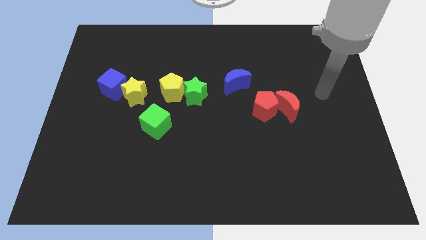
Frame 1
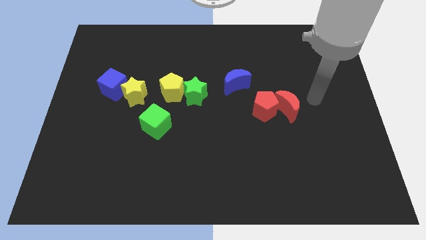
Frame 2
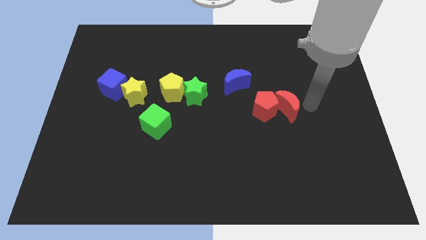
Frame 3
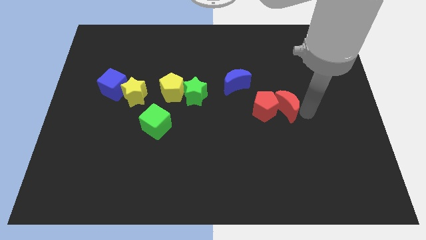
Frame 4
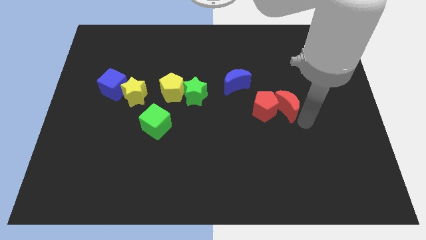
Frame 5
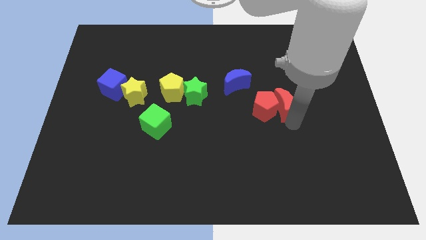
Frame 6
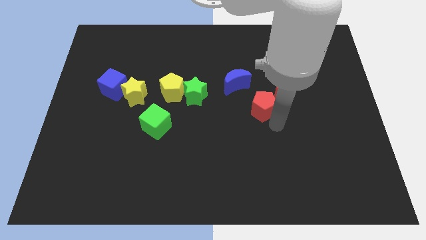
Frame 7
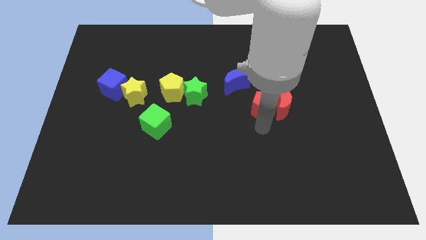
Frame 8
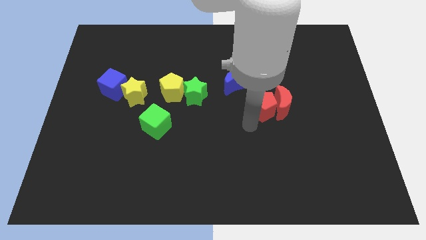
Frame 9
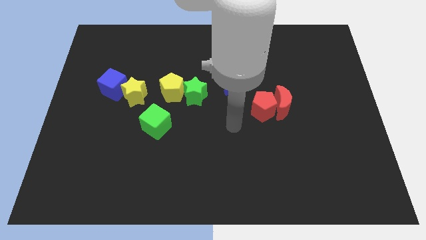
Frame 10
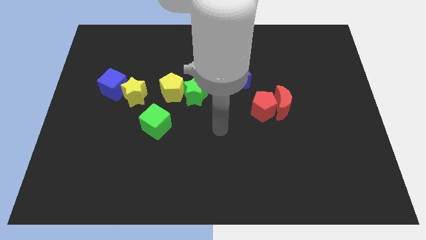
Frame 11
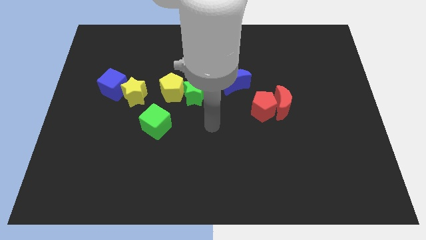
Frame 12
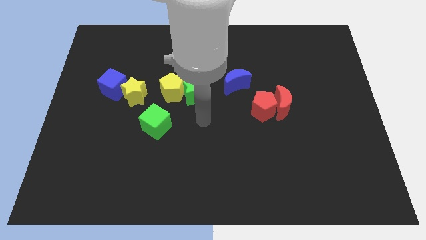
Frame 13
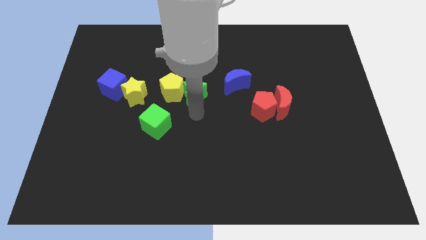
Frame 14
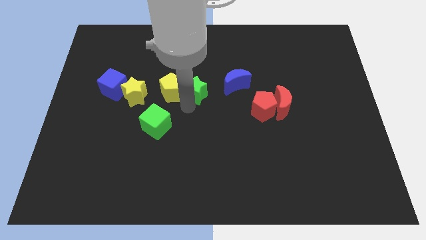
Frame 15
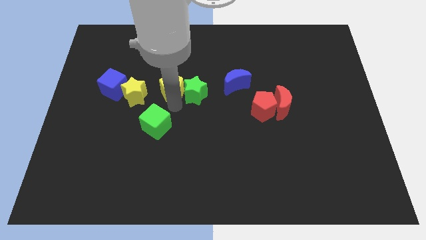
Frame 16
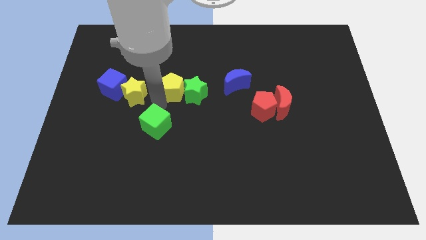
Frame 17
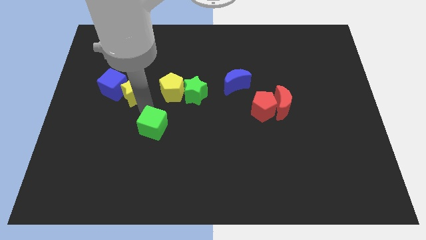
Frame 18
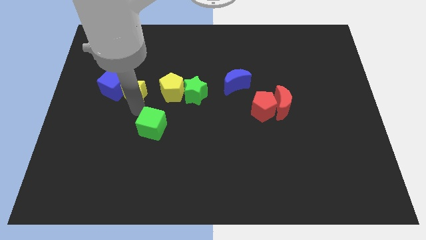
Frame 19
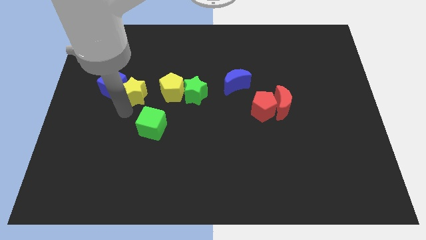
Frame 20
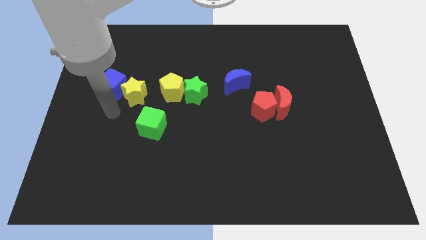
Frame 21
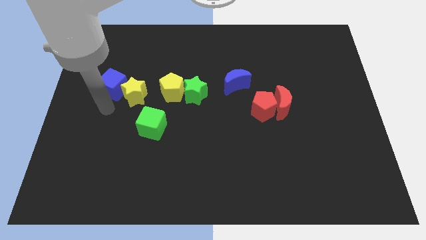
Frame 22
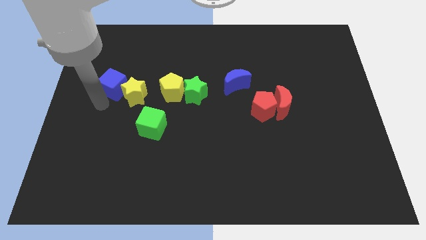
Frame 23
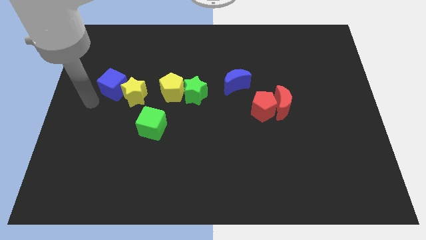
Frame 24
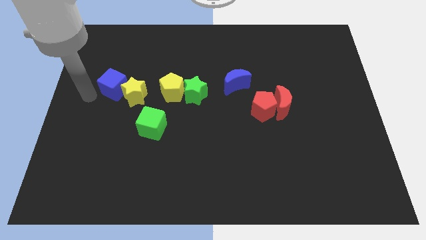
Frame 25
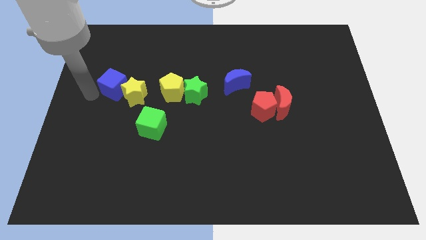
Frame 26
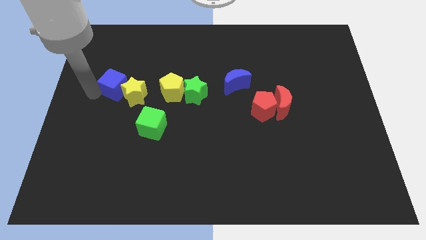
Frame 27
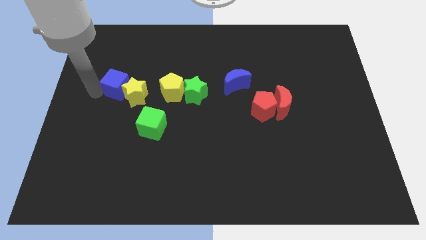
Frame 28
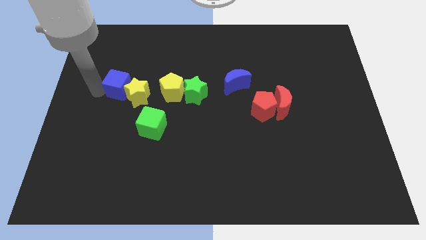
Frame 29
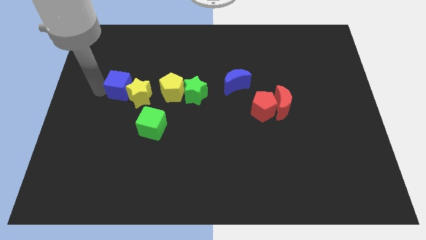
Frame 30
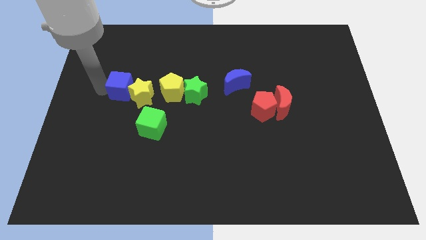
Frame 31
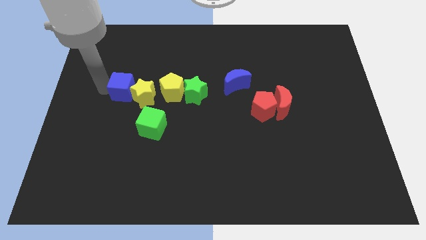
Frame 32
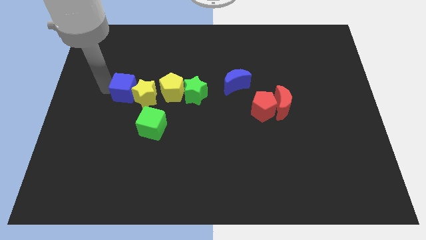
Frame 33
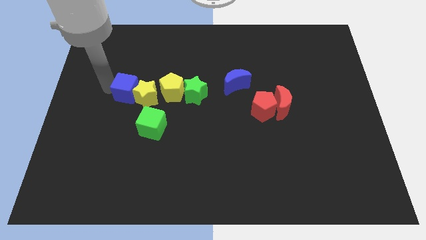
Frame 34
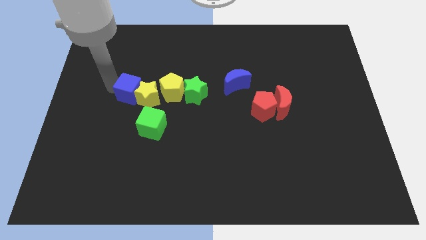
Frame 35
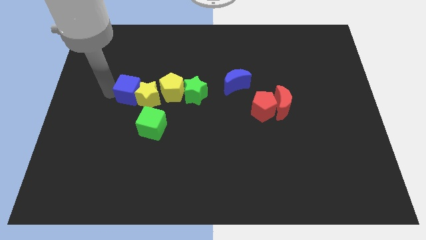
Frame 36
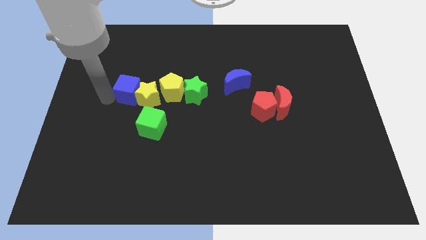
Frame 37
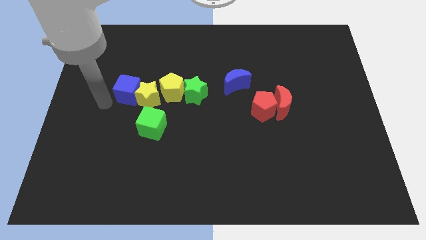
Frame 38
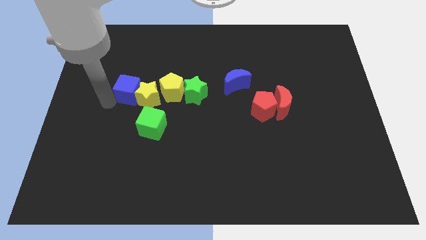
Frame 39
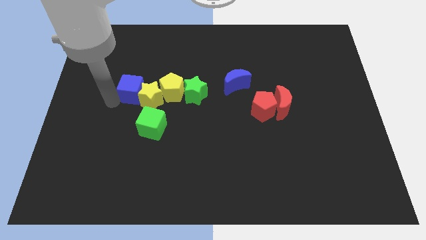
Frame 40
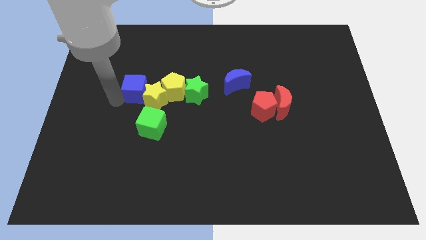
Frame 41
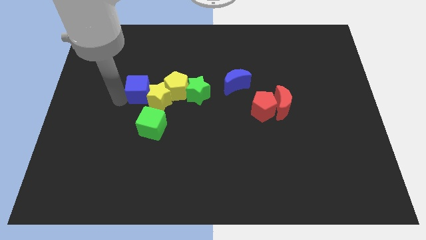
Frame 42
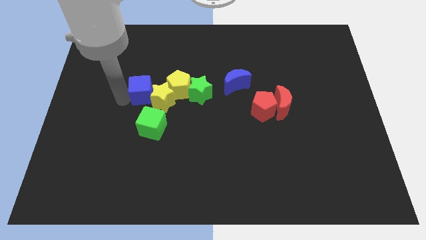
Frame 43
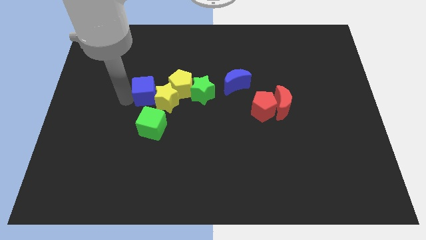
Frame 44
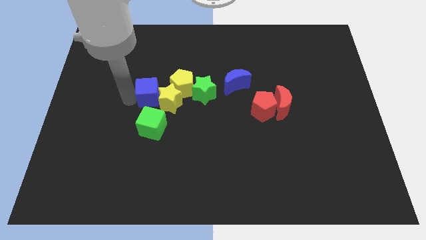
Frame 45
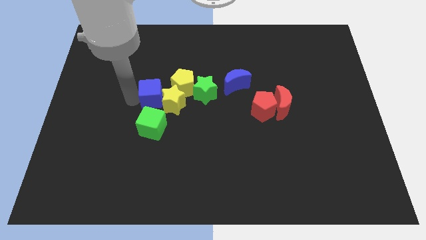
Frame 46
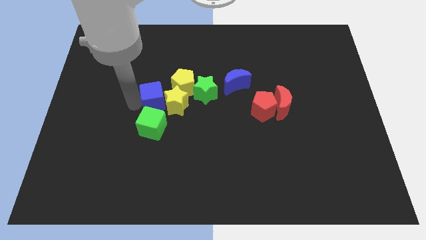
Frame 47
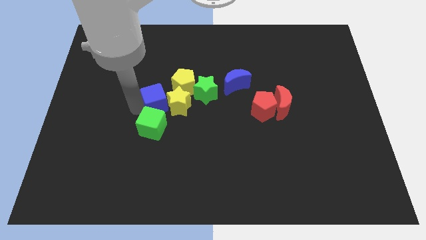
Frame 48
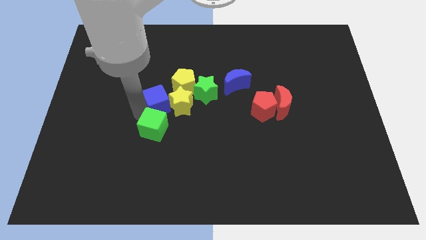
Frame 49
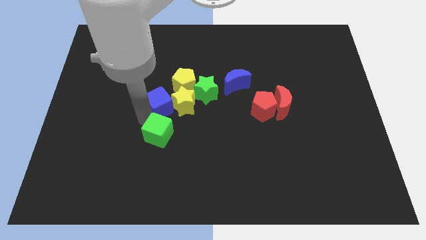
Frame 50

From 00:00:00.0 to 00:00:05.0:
slide the blue cube to the middle

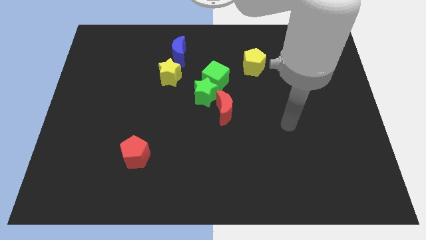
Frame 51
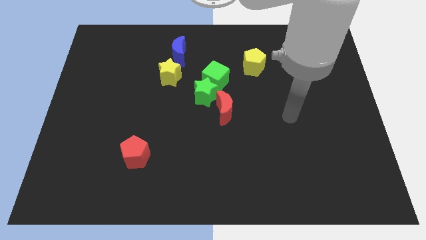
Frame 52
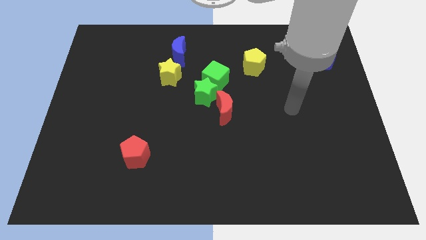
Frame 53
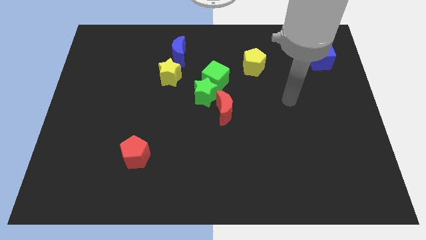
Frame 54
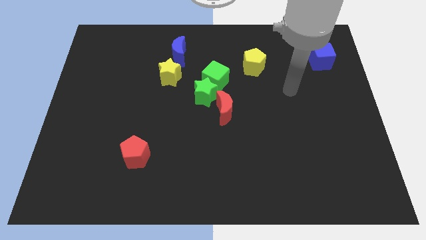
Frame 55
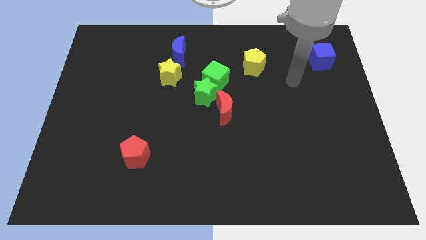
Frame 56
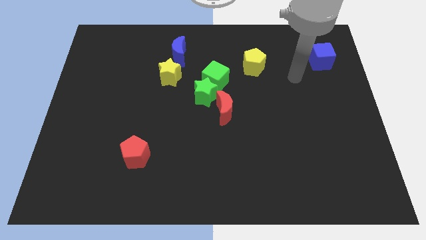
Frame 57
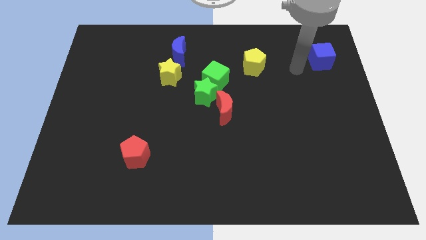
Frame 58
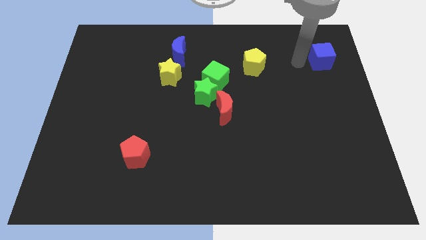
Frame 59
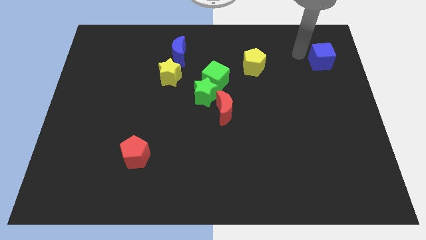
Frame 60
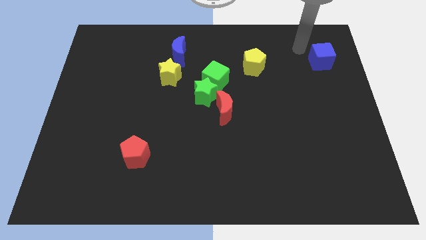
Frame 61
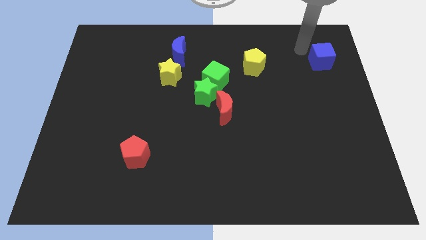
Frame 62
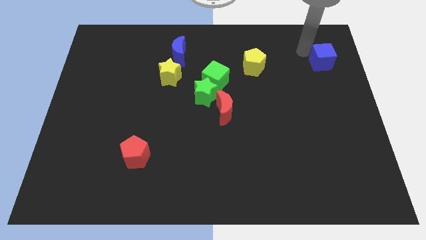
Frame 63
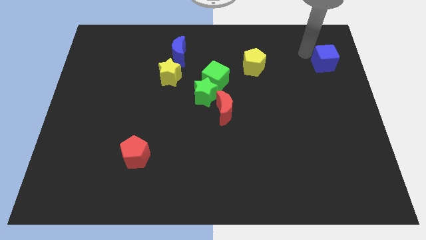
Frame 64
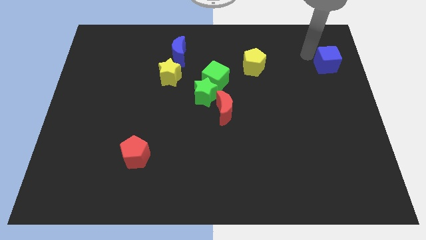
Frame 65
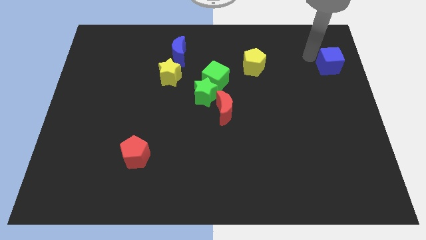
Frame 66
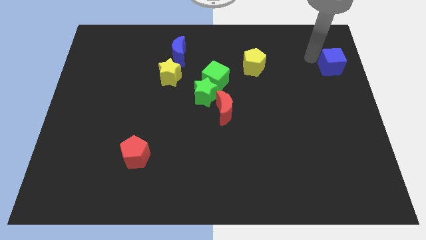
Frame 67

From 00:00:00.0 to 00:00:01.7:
put the blue cube to the right side of the board

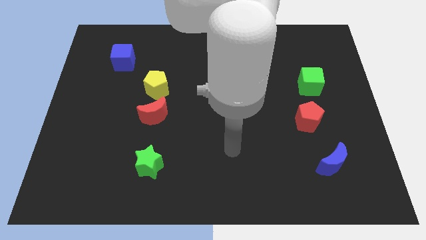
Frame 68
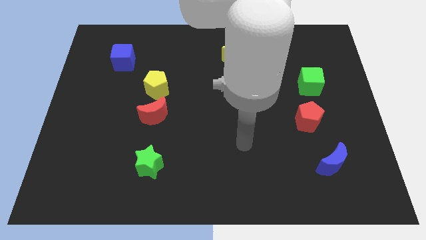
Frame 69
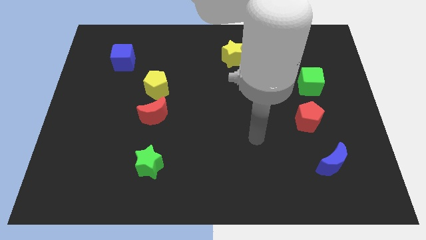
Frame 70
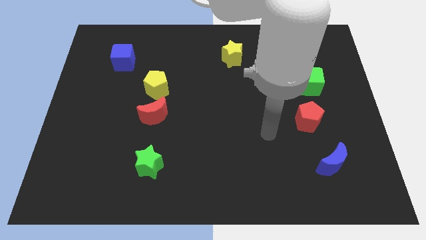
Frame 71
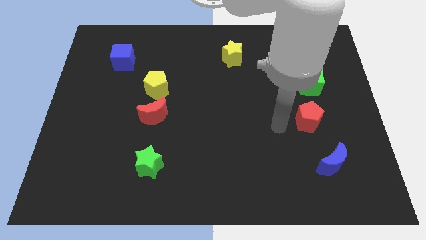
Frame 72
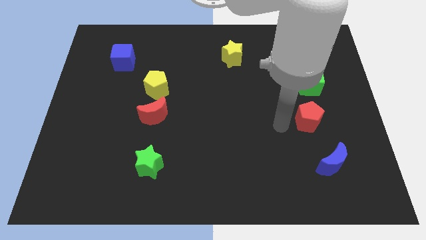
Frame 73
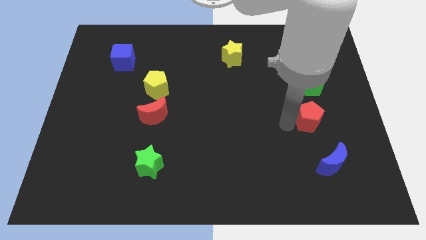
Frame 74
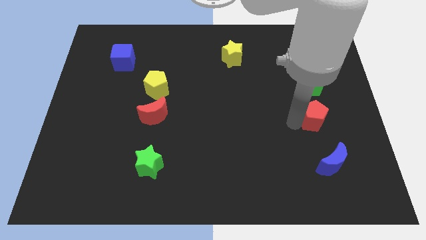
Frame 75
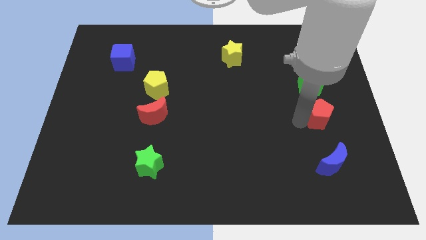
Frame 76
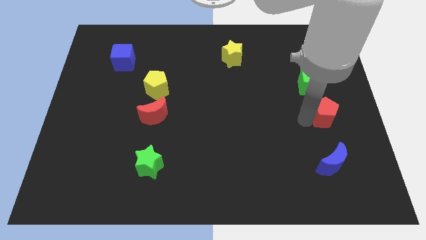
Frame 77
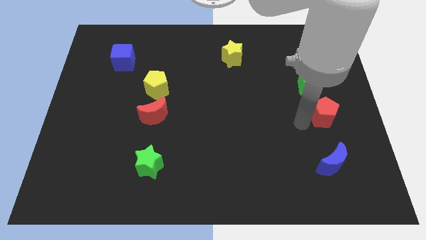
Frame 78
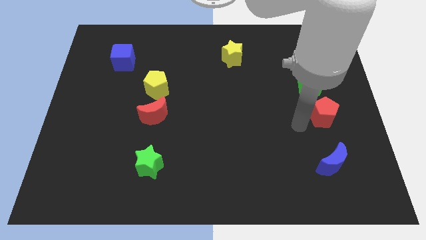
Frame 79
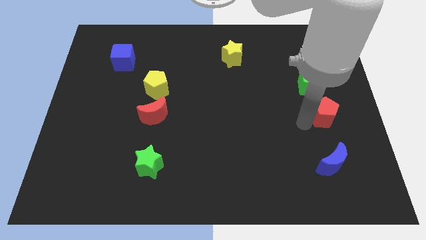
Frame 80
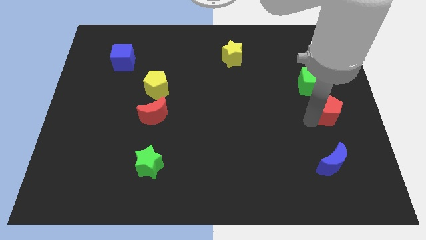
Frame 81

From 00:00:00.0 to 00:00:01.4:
push the red pentagon to the right side

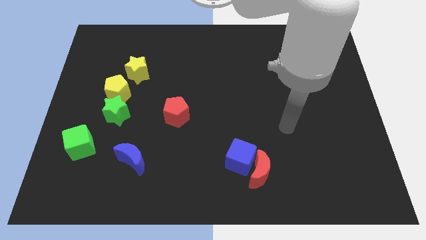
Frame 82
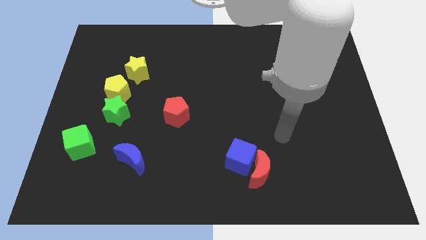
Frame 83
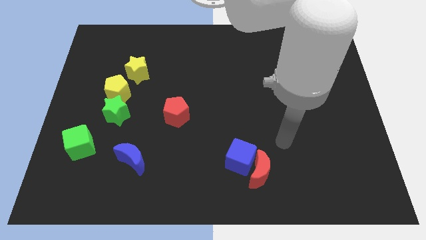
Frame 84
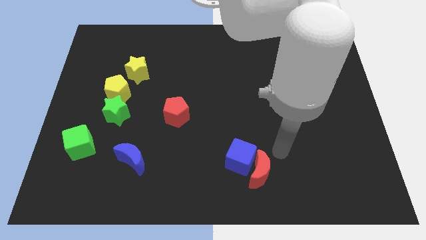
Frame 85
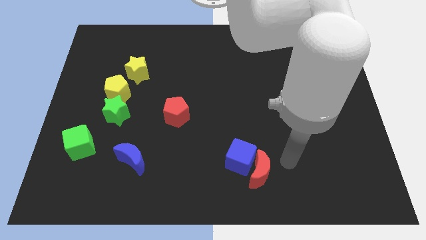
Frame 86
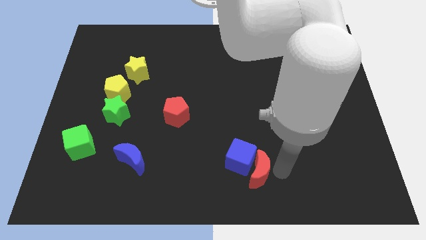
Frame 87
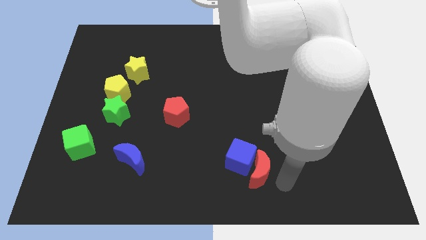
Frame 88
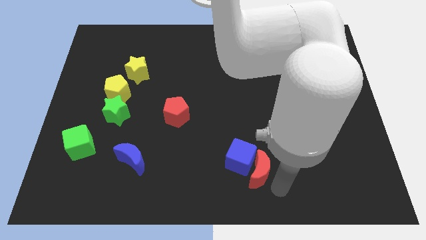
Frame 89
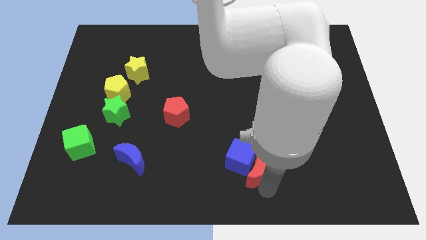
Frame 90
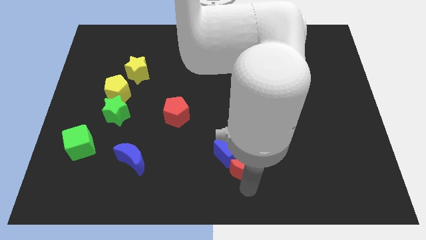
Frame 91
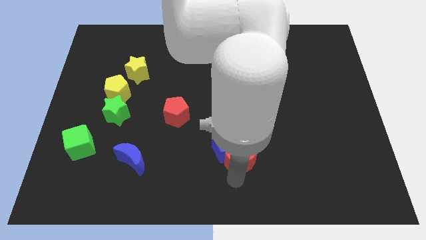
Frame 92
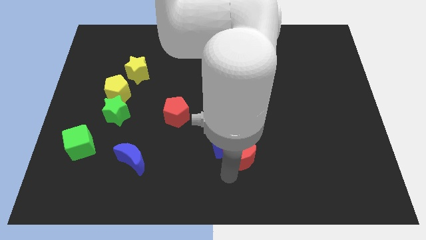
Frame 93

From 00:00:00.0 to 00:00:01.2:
move the blue cube to the center of the board
